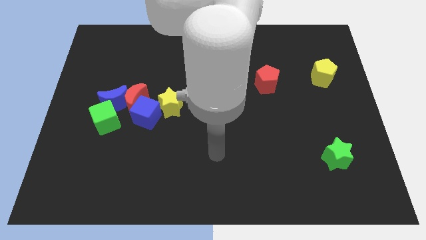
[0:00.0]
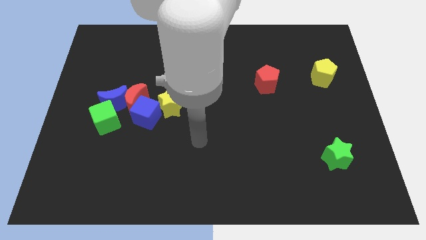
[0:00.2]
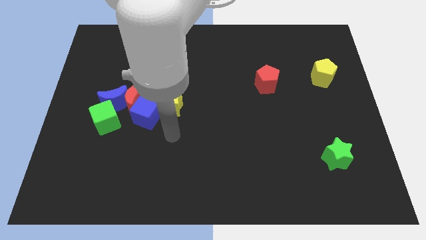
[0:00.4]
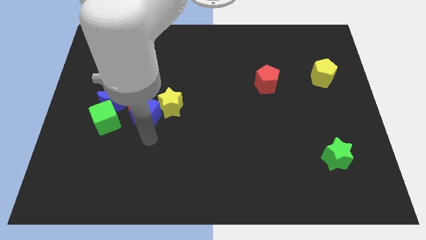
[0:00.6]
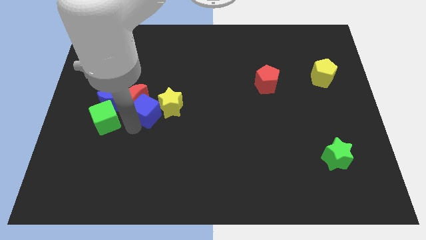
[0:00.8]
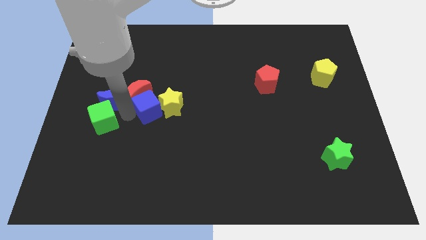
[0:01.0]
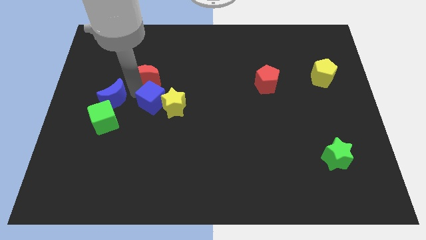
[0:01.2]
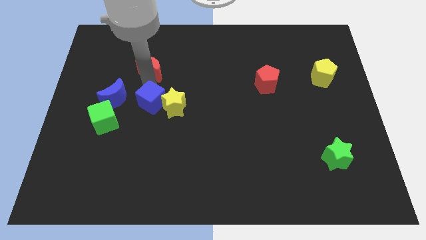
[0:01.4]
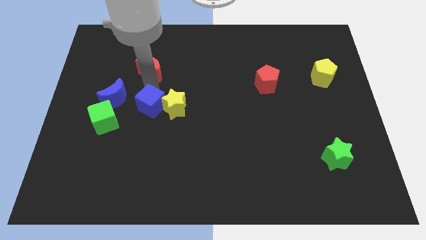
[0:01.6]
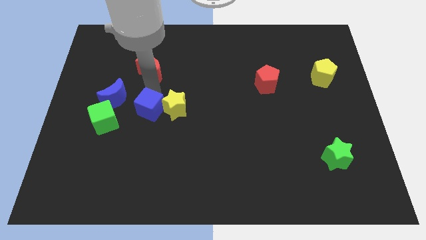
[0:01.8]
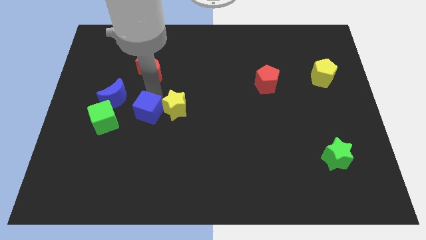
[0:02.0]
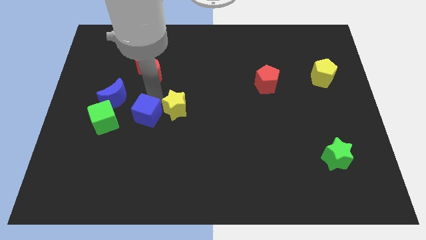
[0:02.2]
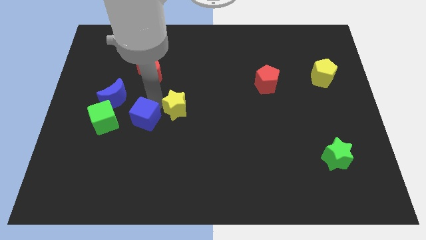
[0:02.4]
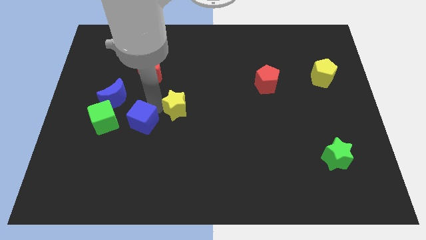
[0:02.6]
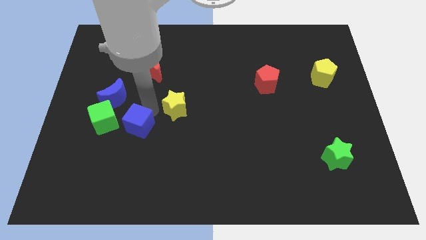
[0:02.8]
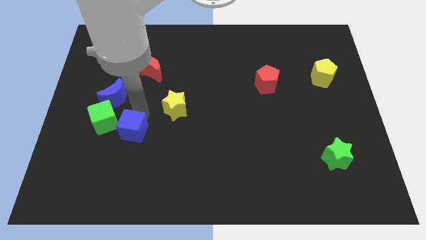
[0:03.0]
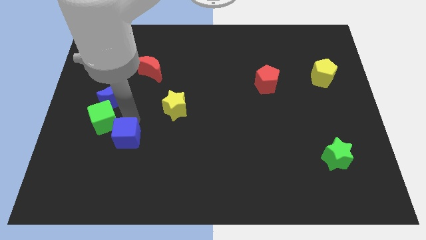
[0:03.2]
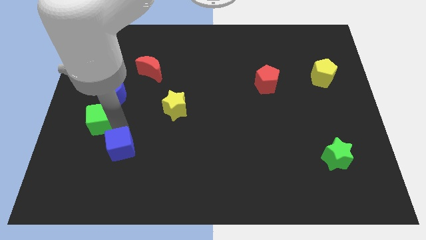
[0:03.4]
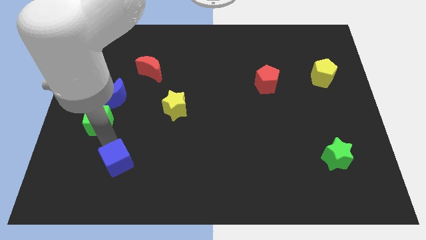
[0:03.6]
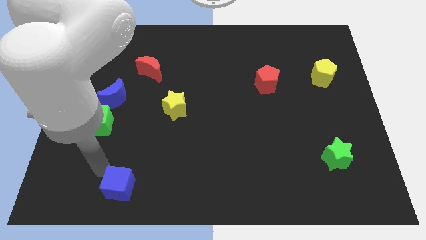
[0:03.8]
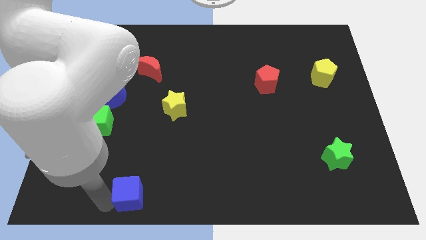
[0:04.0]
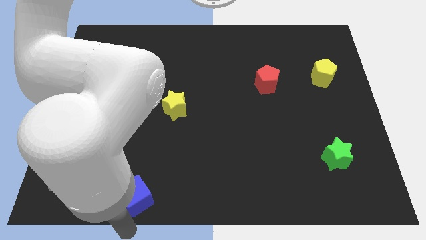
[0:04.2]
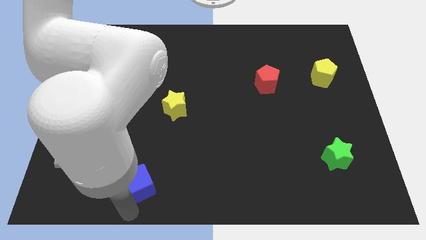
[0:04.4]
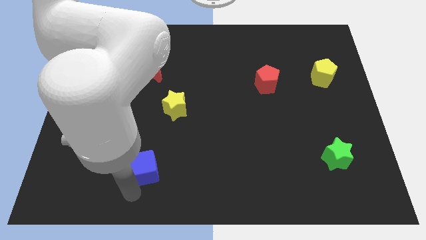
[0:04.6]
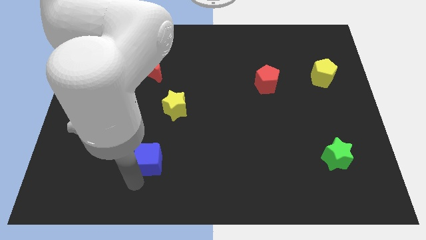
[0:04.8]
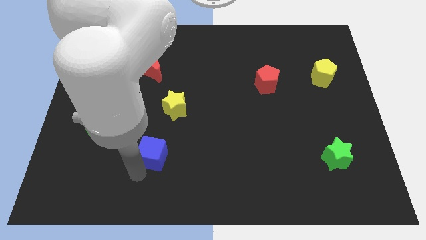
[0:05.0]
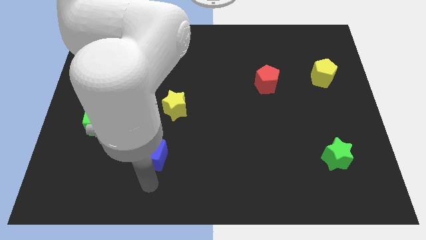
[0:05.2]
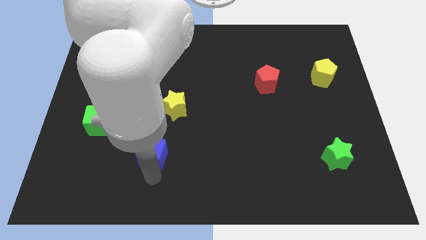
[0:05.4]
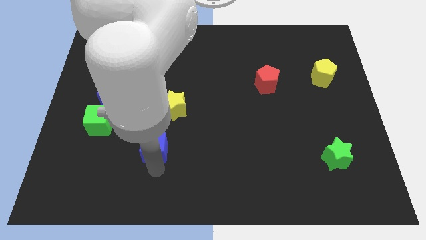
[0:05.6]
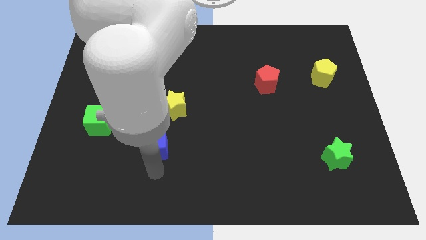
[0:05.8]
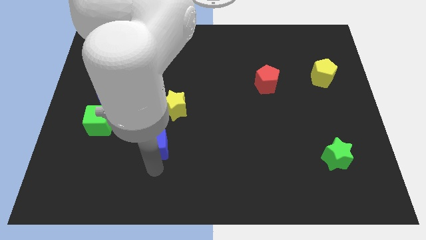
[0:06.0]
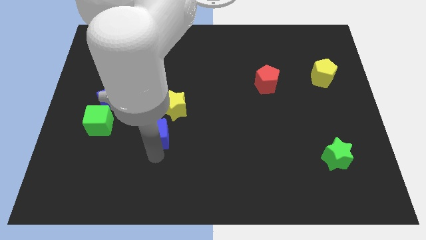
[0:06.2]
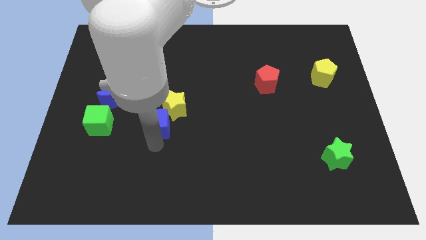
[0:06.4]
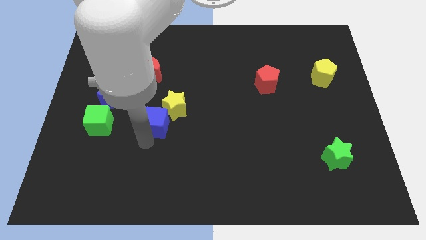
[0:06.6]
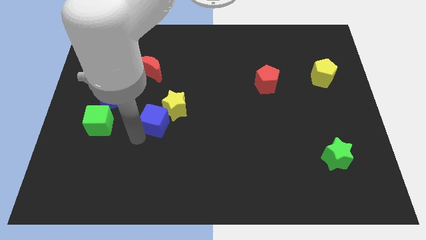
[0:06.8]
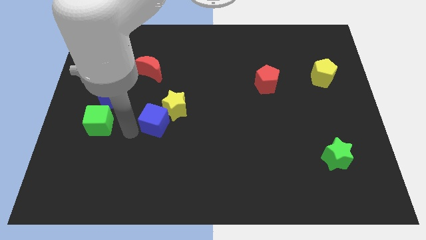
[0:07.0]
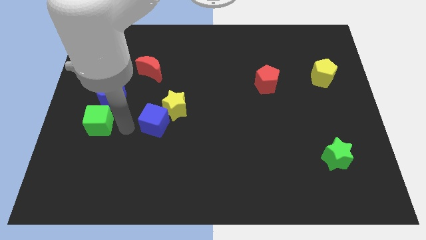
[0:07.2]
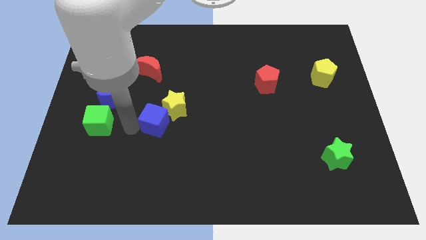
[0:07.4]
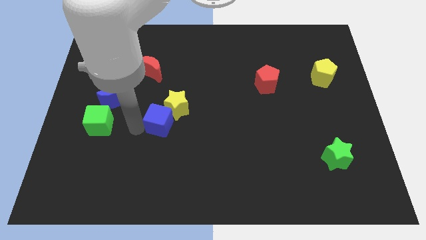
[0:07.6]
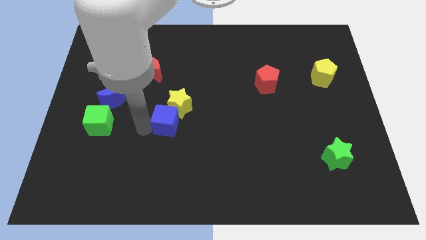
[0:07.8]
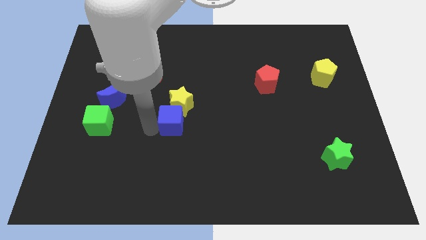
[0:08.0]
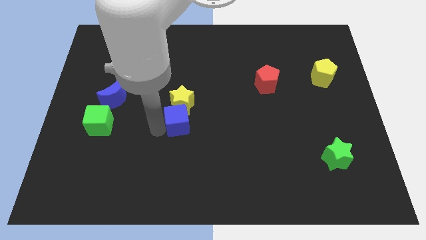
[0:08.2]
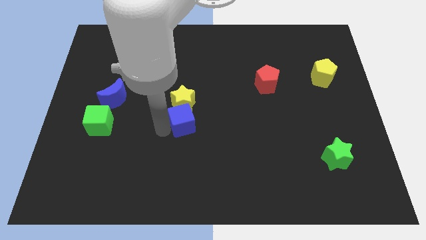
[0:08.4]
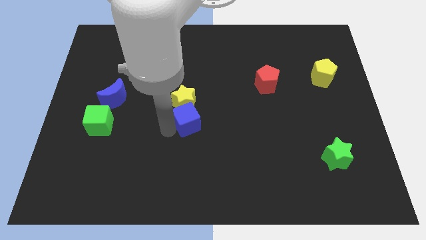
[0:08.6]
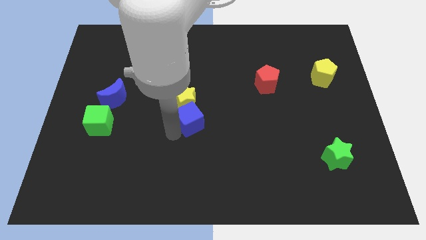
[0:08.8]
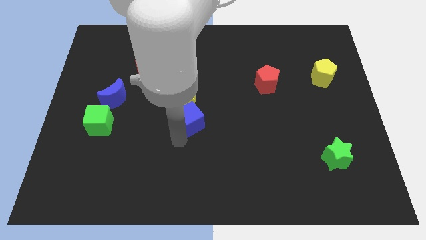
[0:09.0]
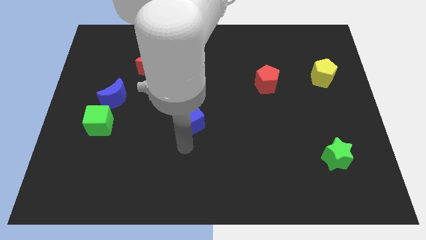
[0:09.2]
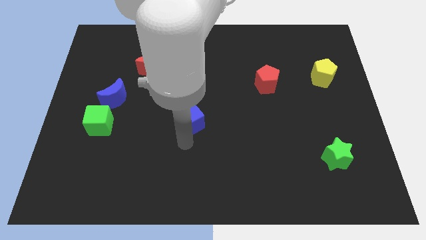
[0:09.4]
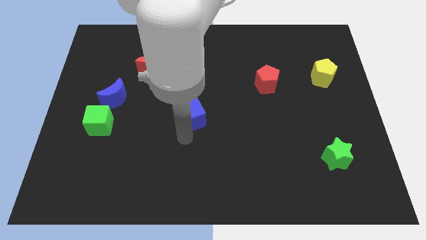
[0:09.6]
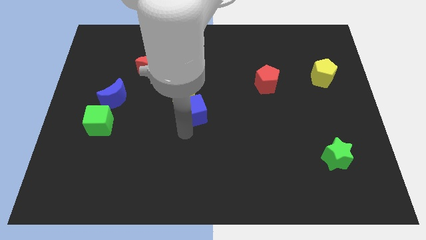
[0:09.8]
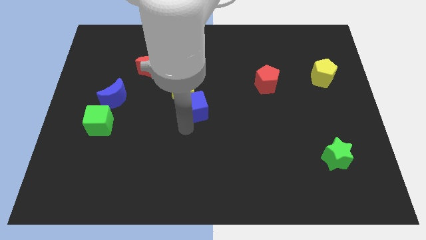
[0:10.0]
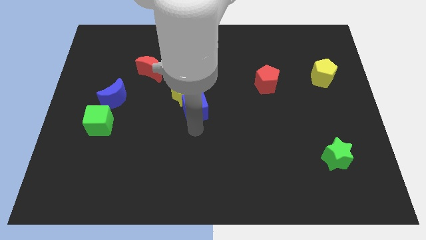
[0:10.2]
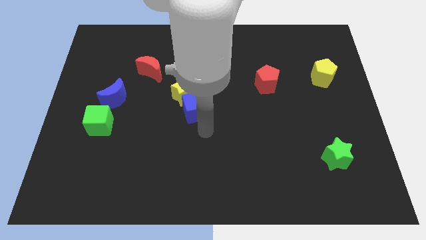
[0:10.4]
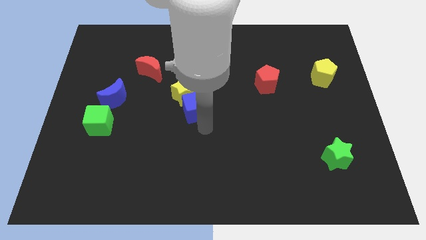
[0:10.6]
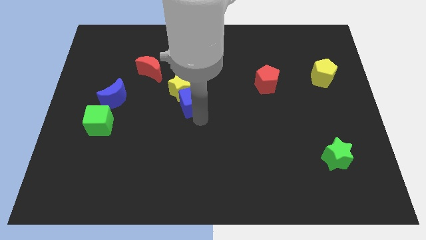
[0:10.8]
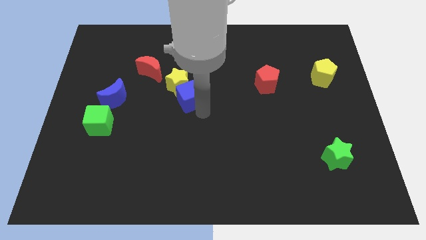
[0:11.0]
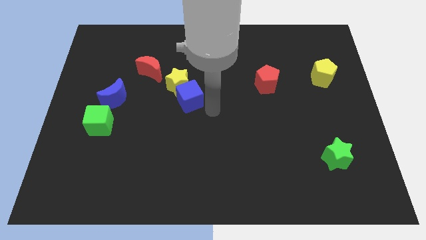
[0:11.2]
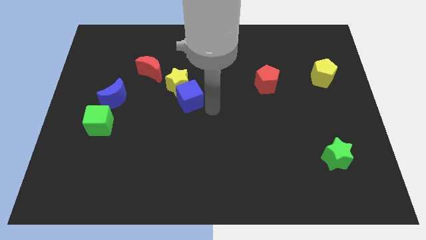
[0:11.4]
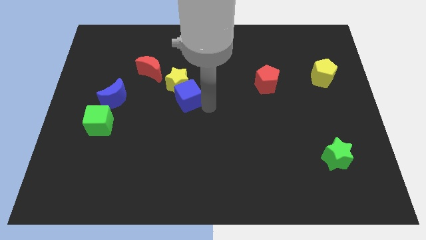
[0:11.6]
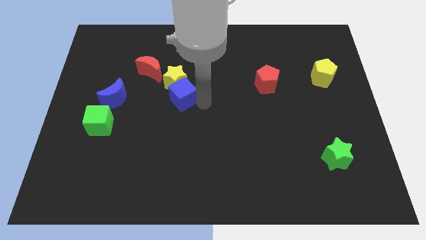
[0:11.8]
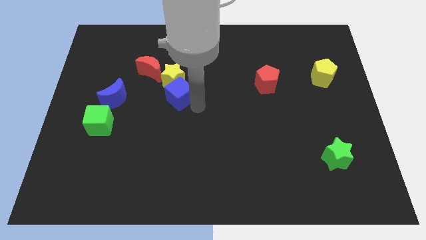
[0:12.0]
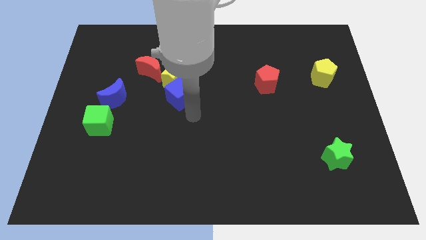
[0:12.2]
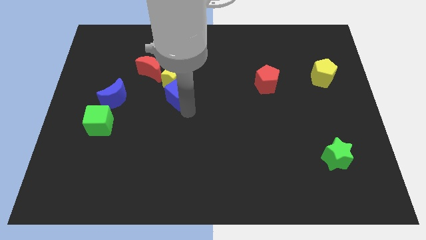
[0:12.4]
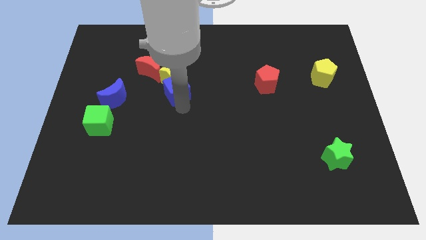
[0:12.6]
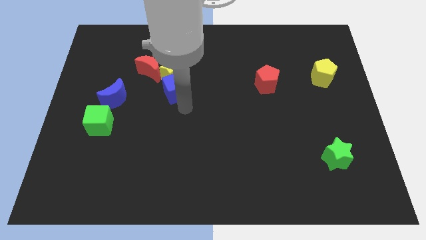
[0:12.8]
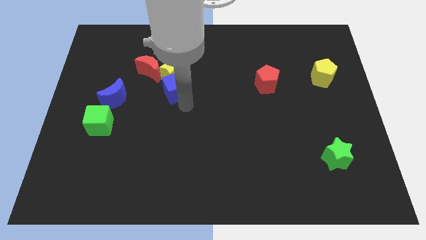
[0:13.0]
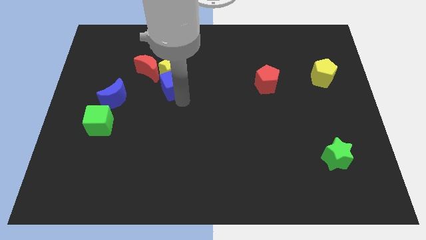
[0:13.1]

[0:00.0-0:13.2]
push the blue cube somewhat up

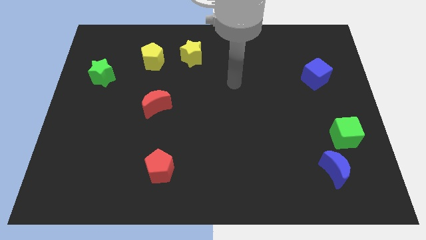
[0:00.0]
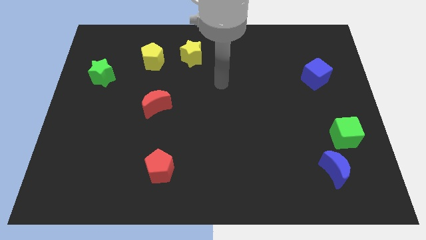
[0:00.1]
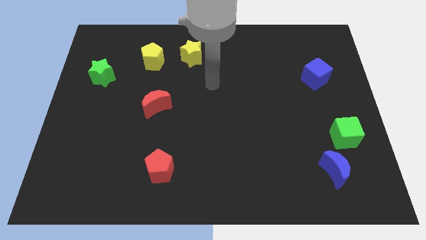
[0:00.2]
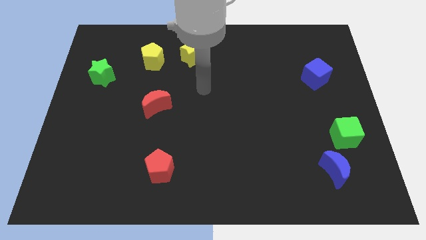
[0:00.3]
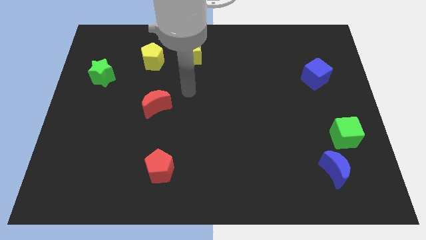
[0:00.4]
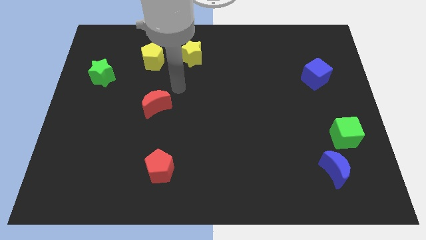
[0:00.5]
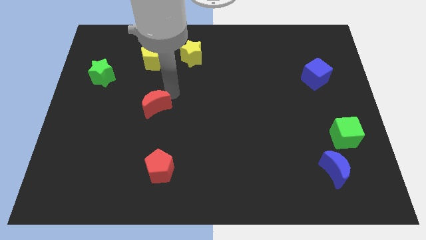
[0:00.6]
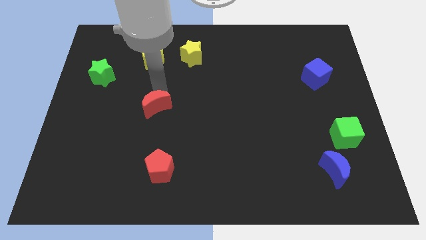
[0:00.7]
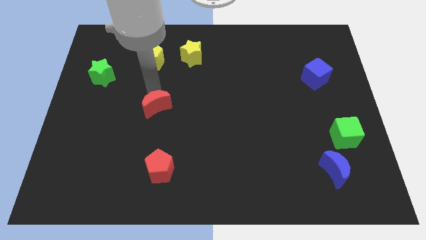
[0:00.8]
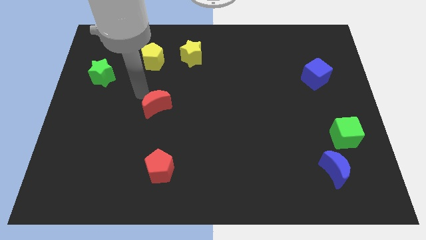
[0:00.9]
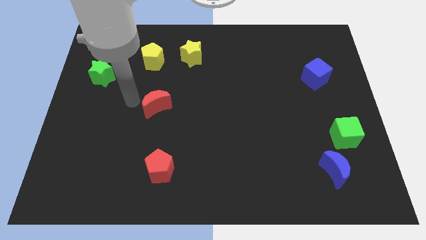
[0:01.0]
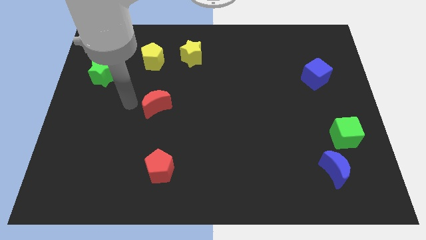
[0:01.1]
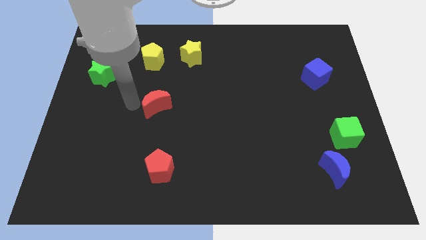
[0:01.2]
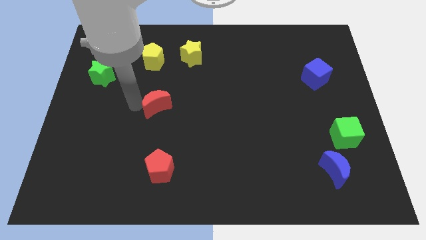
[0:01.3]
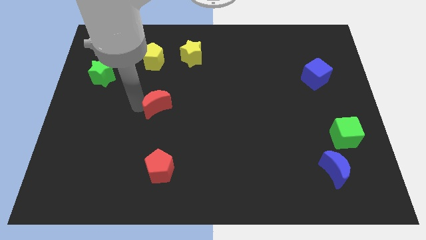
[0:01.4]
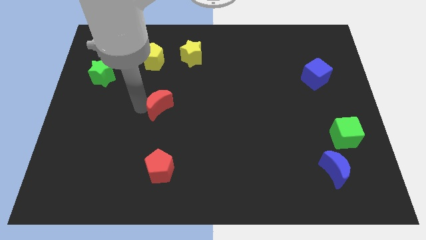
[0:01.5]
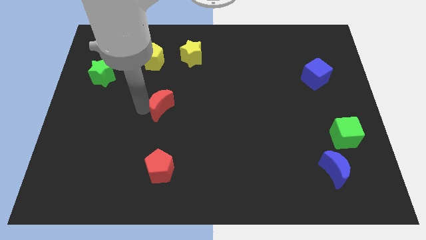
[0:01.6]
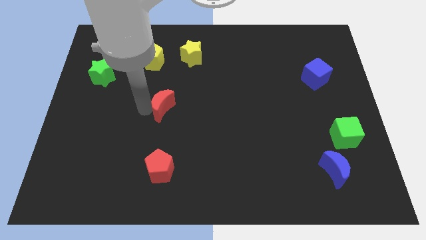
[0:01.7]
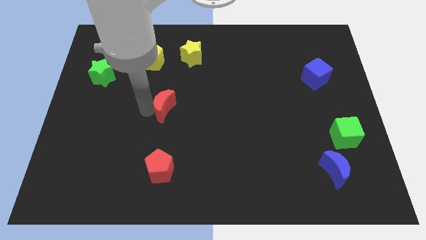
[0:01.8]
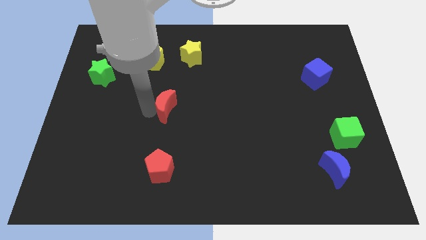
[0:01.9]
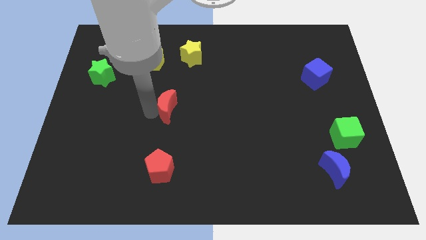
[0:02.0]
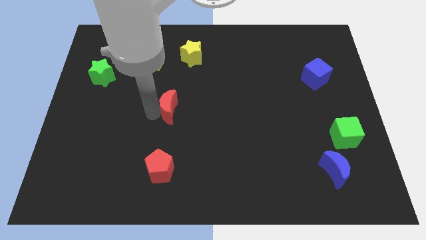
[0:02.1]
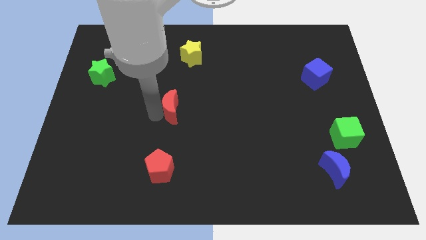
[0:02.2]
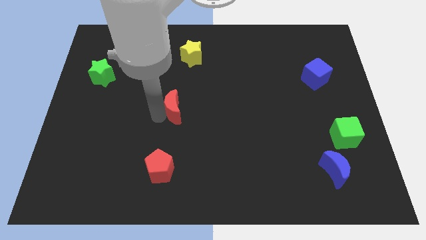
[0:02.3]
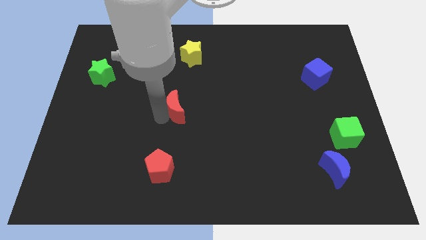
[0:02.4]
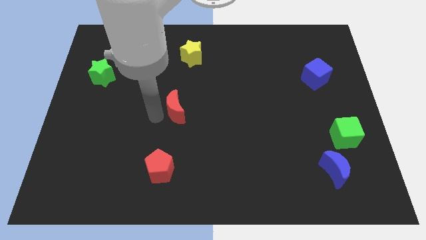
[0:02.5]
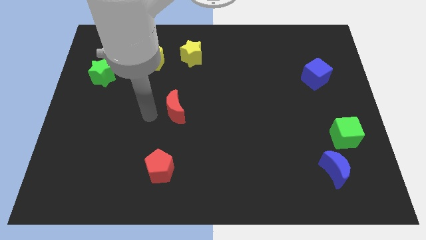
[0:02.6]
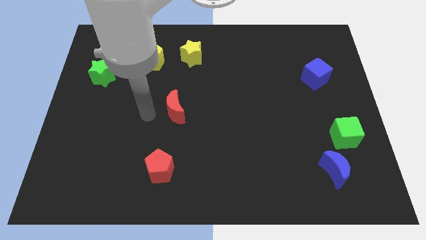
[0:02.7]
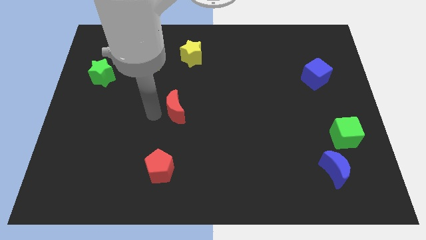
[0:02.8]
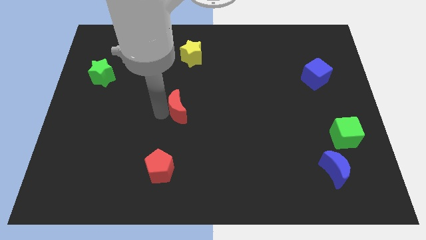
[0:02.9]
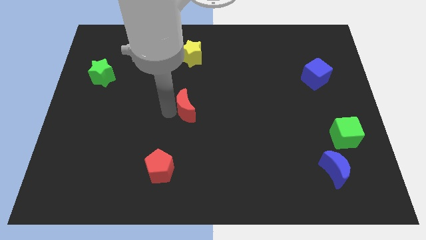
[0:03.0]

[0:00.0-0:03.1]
slightly move the red moon to the right
